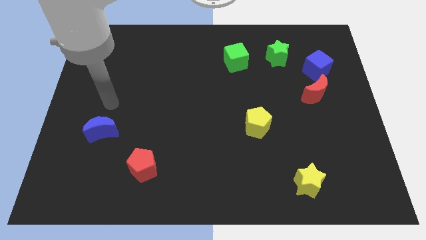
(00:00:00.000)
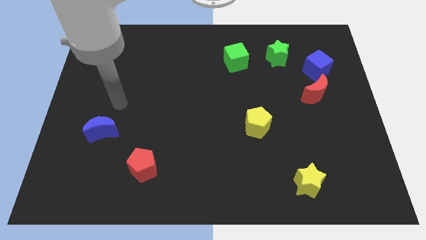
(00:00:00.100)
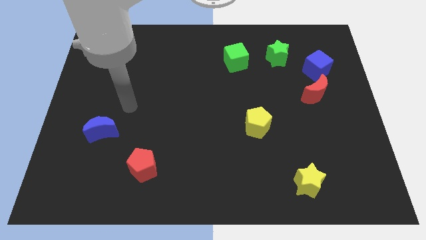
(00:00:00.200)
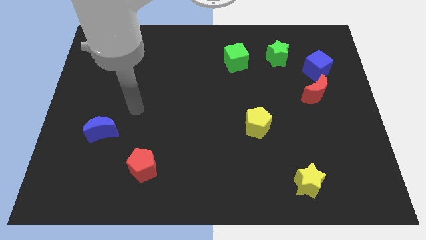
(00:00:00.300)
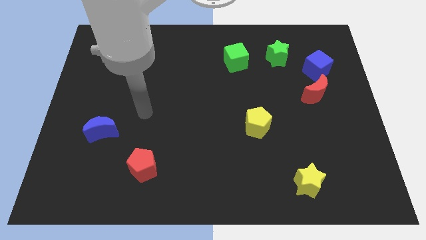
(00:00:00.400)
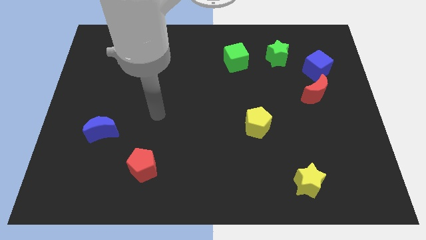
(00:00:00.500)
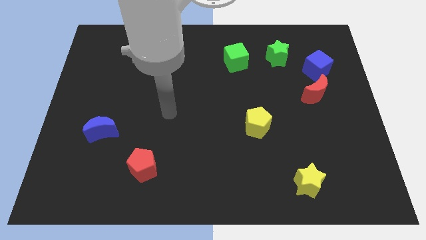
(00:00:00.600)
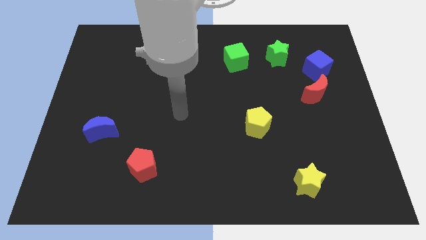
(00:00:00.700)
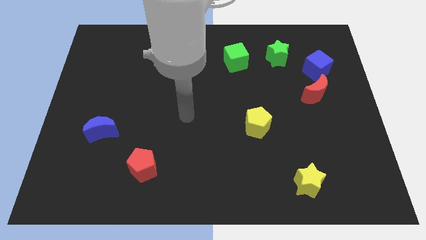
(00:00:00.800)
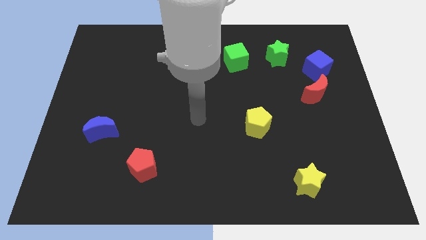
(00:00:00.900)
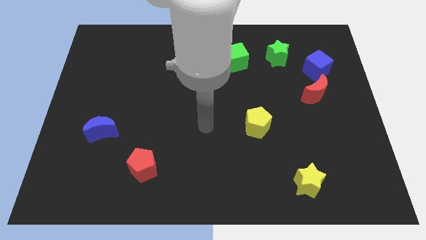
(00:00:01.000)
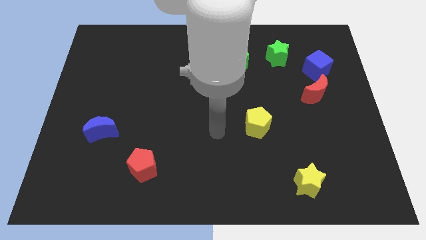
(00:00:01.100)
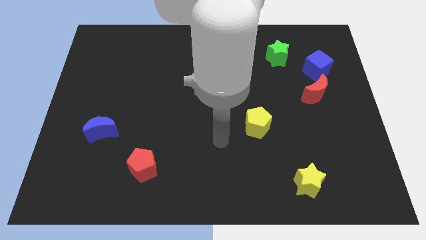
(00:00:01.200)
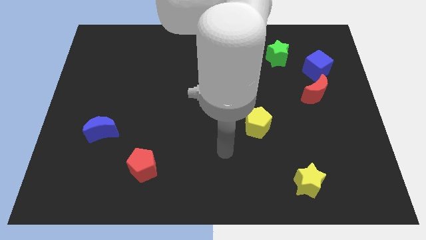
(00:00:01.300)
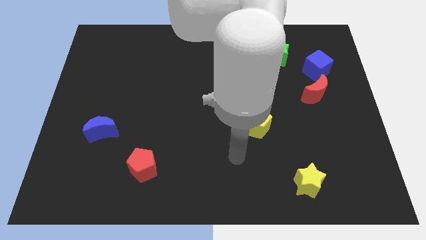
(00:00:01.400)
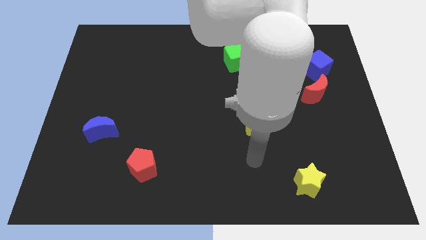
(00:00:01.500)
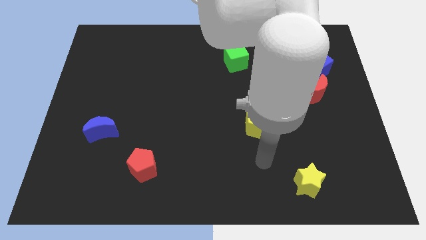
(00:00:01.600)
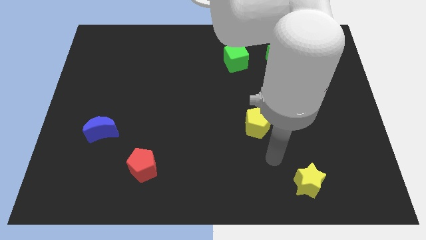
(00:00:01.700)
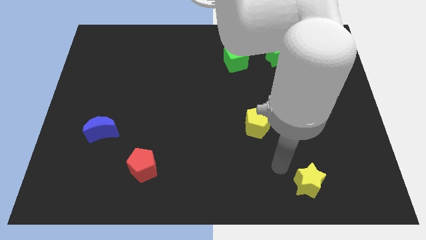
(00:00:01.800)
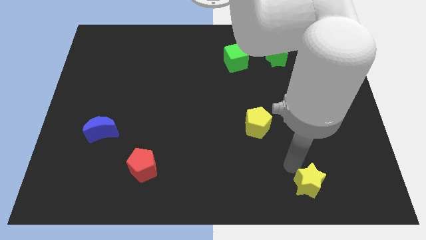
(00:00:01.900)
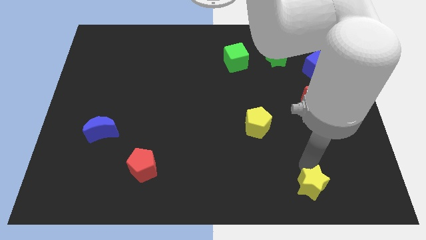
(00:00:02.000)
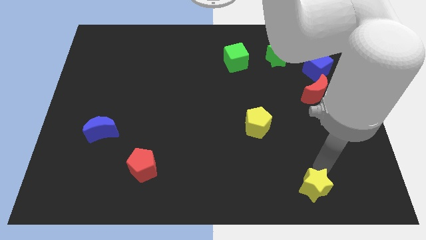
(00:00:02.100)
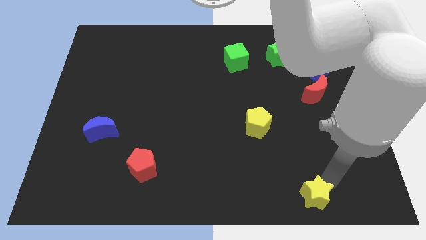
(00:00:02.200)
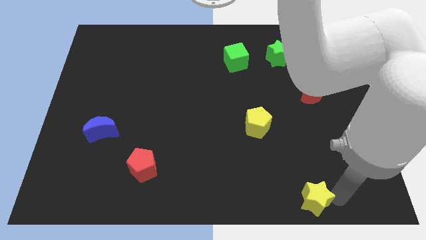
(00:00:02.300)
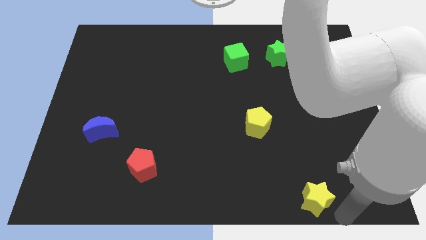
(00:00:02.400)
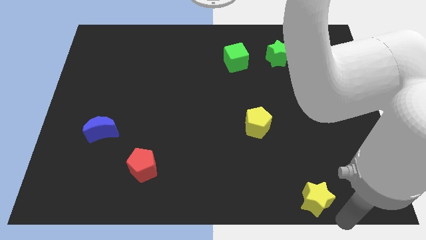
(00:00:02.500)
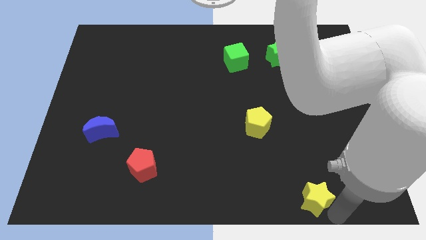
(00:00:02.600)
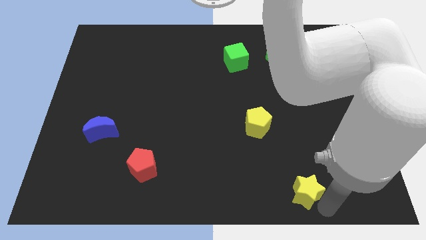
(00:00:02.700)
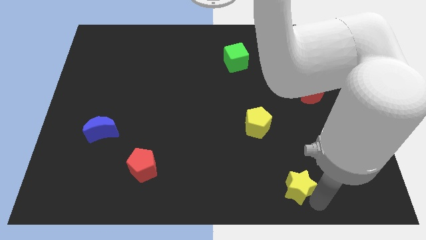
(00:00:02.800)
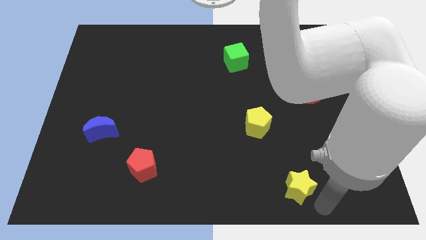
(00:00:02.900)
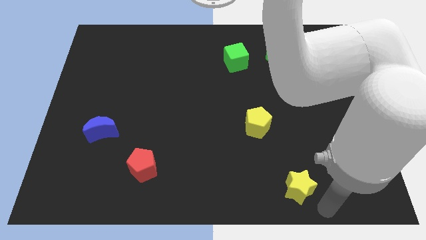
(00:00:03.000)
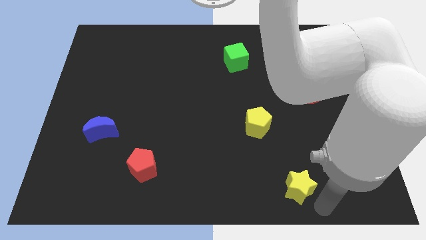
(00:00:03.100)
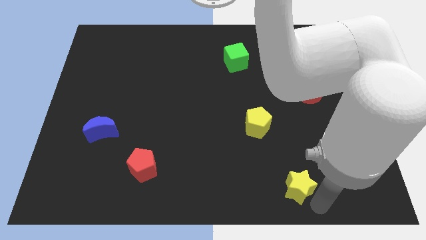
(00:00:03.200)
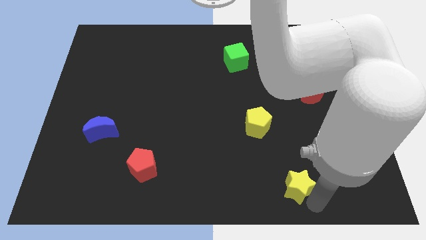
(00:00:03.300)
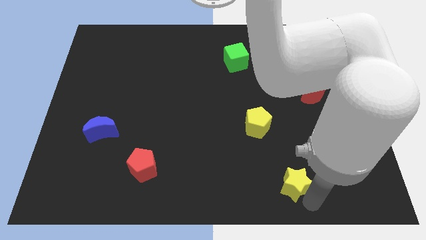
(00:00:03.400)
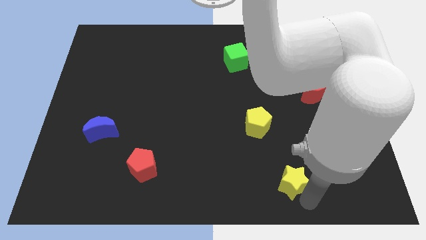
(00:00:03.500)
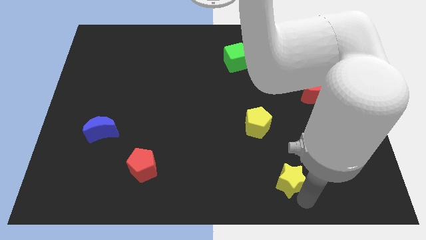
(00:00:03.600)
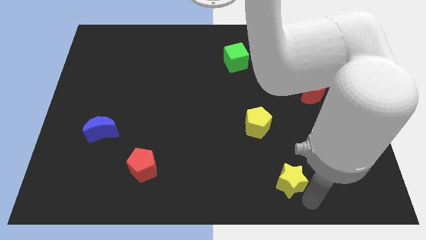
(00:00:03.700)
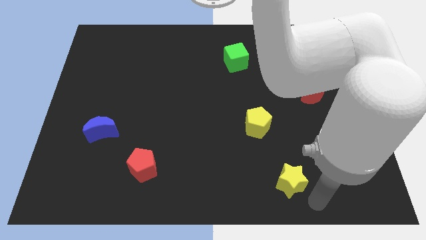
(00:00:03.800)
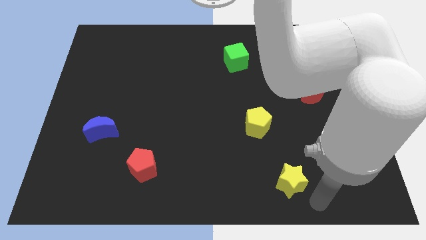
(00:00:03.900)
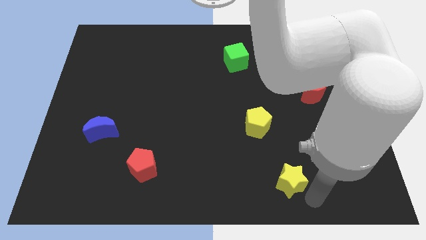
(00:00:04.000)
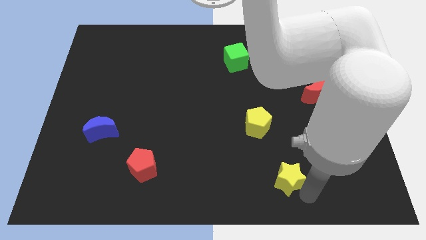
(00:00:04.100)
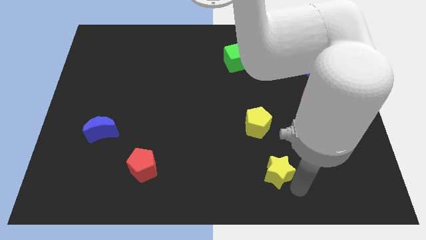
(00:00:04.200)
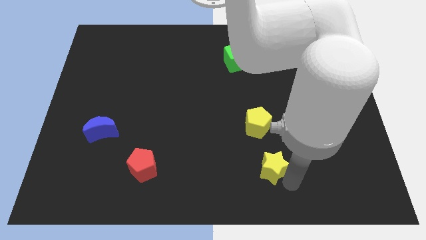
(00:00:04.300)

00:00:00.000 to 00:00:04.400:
slide the yellow star up and to the left diagonally a little bit

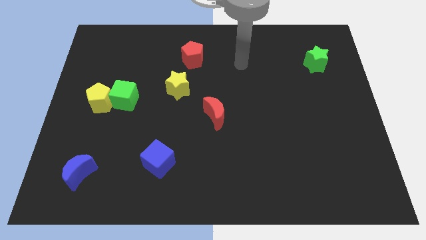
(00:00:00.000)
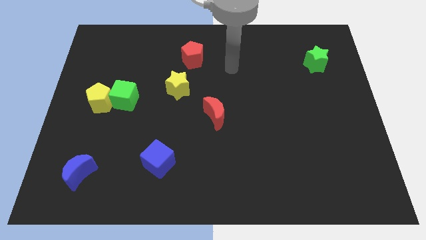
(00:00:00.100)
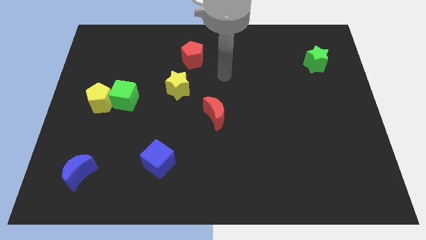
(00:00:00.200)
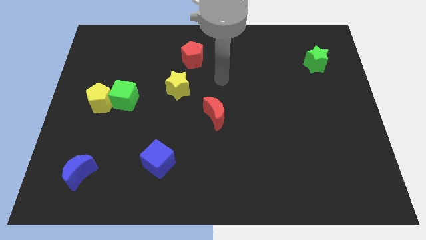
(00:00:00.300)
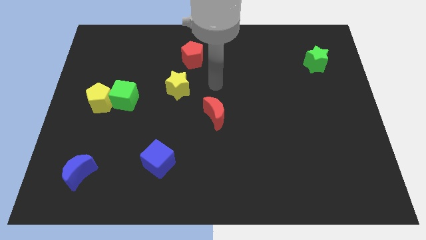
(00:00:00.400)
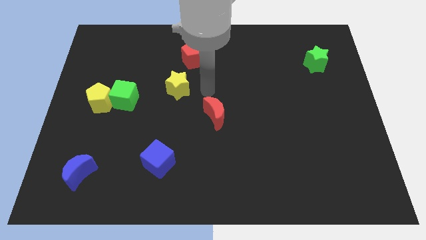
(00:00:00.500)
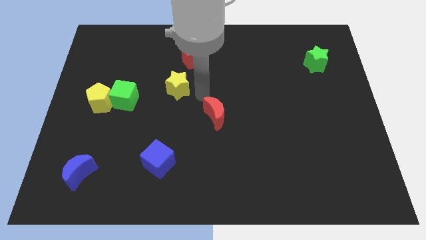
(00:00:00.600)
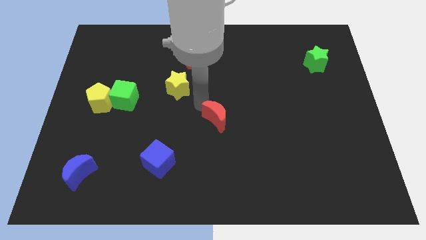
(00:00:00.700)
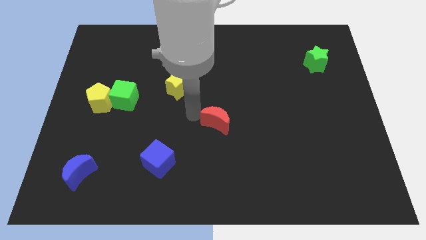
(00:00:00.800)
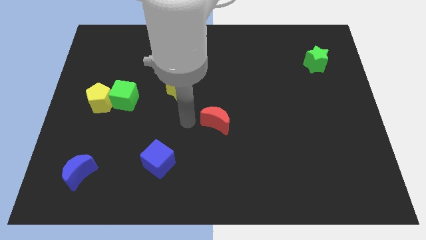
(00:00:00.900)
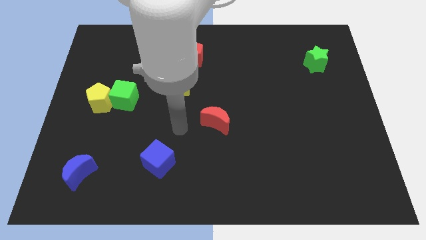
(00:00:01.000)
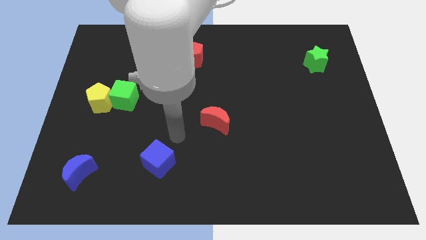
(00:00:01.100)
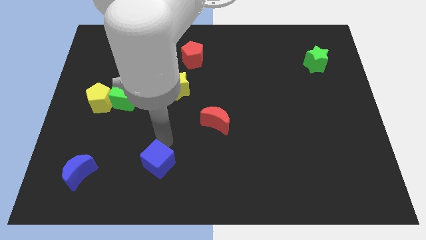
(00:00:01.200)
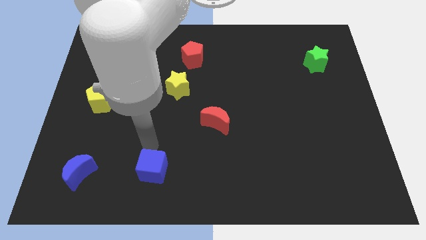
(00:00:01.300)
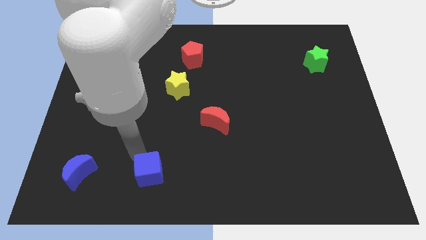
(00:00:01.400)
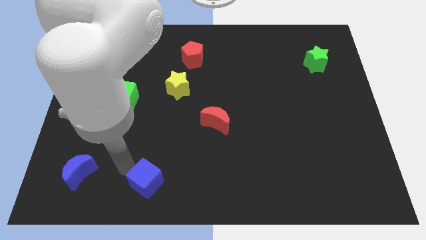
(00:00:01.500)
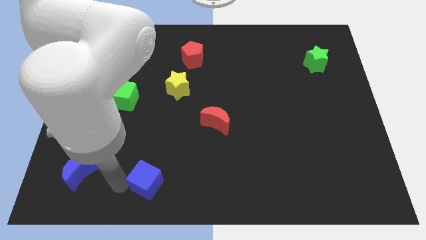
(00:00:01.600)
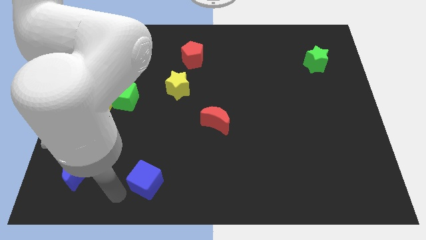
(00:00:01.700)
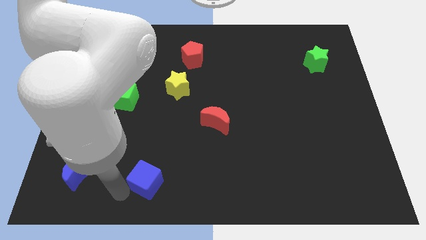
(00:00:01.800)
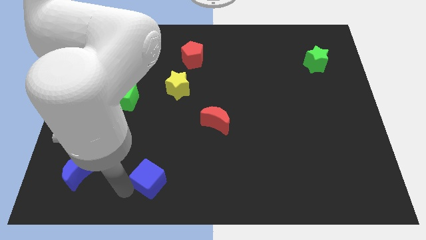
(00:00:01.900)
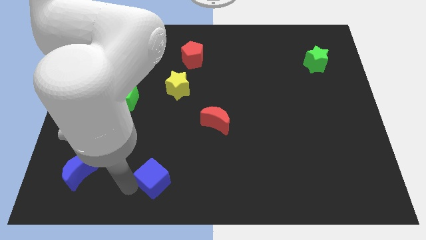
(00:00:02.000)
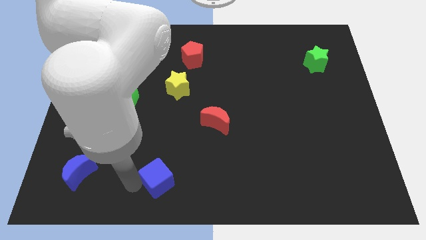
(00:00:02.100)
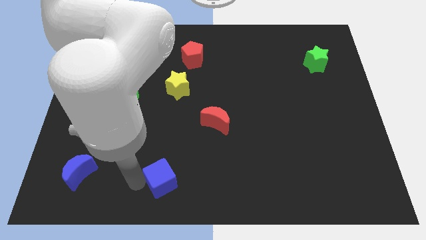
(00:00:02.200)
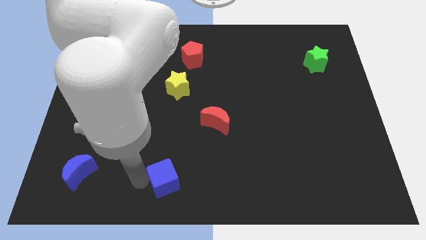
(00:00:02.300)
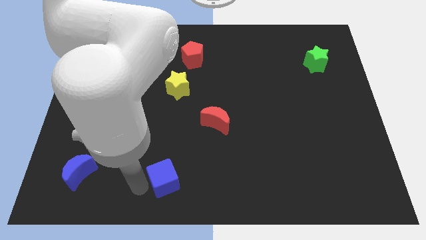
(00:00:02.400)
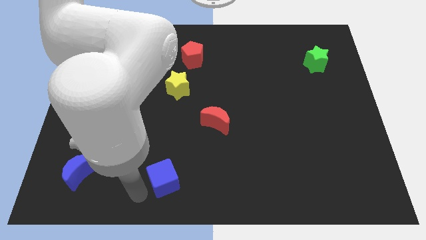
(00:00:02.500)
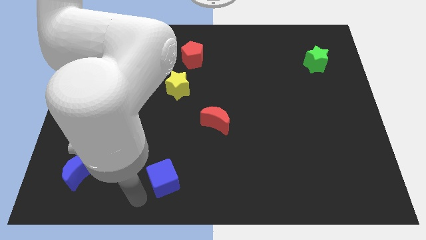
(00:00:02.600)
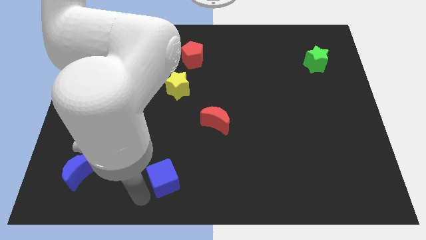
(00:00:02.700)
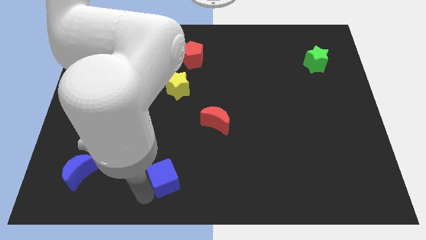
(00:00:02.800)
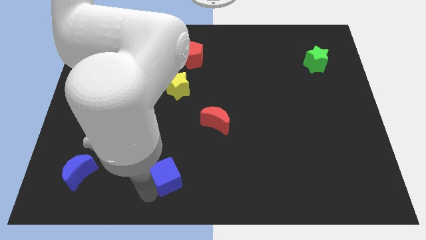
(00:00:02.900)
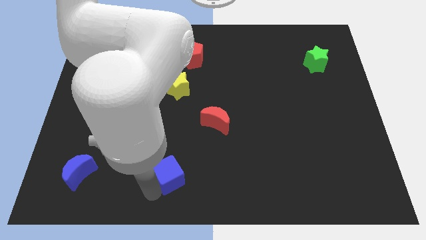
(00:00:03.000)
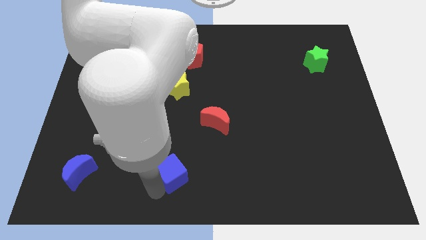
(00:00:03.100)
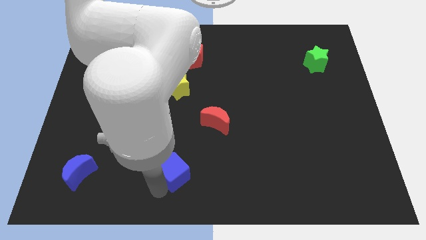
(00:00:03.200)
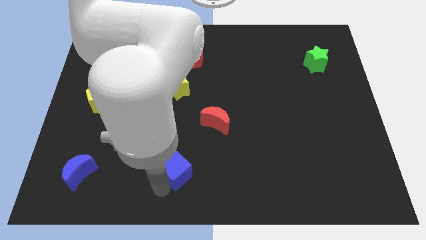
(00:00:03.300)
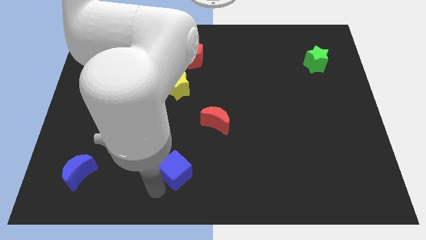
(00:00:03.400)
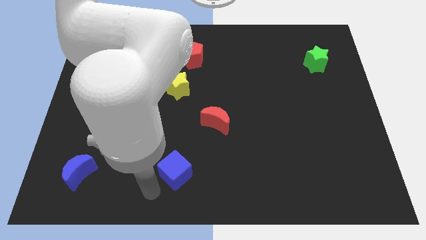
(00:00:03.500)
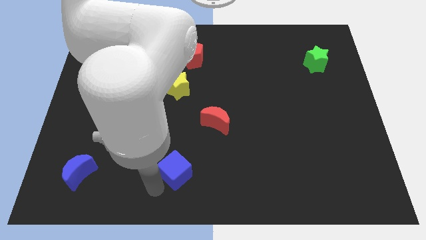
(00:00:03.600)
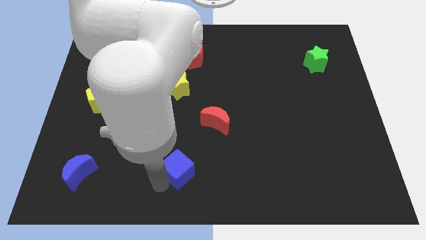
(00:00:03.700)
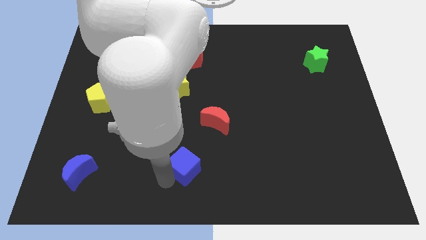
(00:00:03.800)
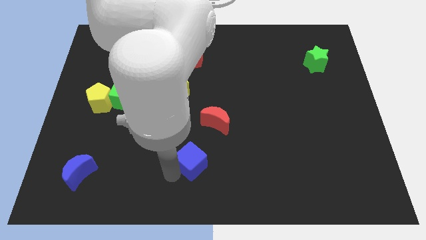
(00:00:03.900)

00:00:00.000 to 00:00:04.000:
slightly slide the blue cube right
